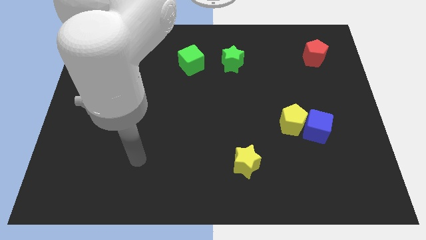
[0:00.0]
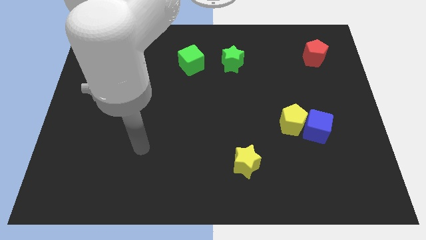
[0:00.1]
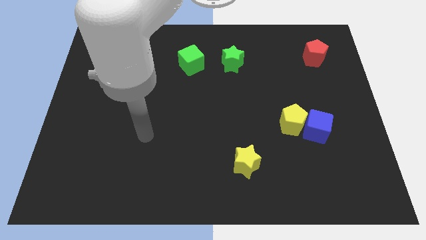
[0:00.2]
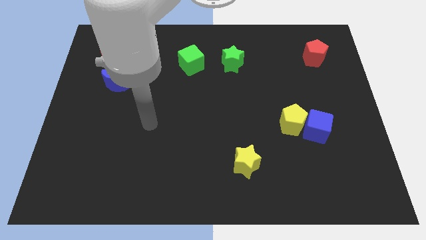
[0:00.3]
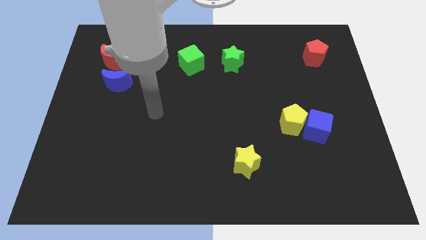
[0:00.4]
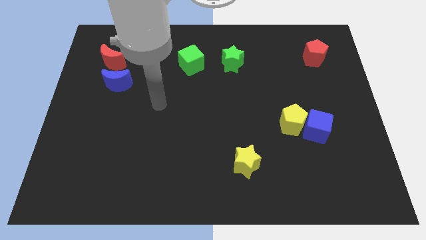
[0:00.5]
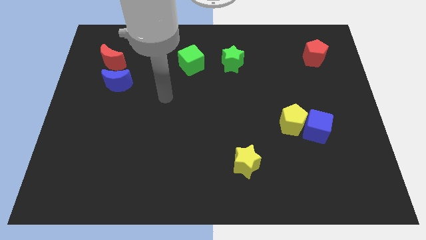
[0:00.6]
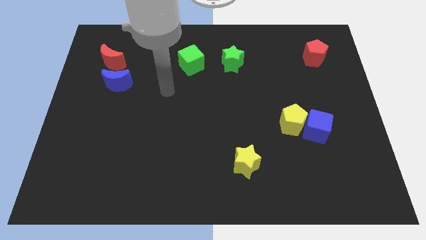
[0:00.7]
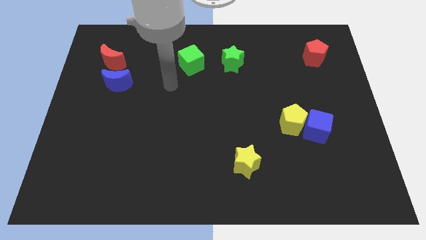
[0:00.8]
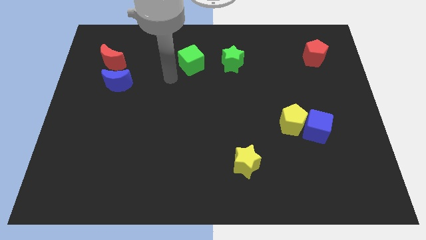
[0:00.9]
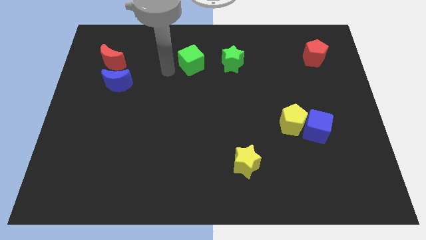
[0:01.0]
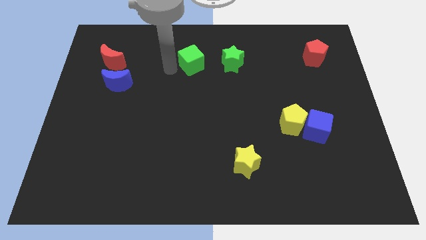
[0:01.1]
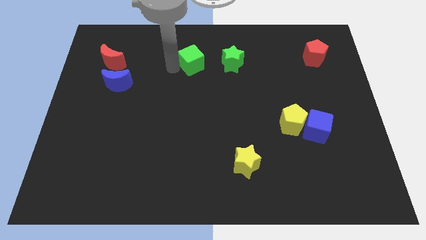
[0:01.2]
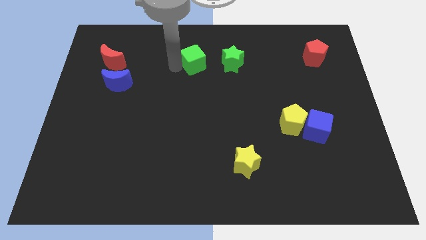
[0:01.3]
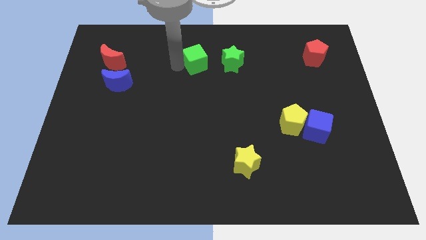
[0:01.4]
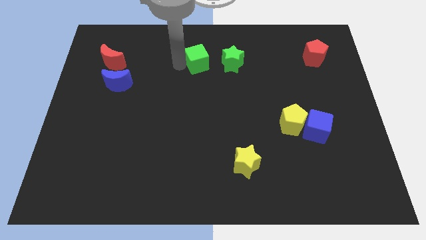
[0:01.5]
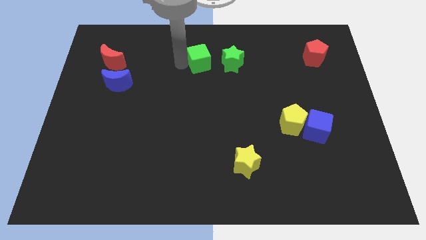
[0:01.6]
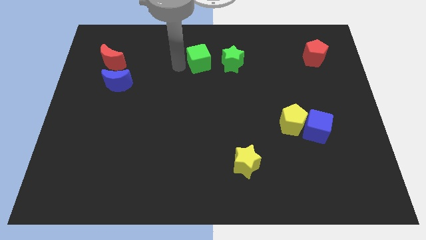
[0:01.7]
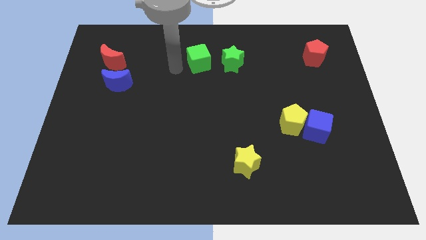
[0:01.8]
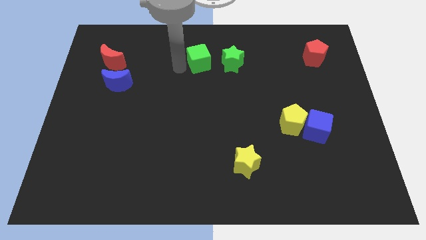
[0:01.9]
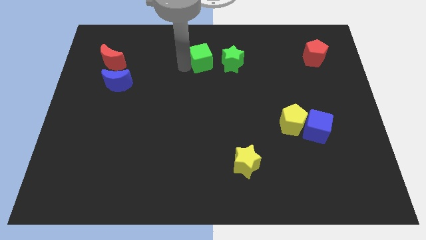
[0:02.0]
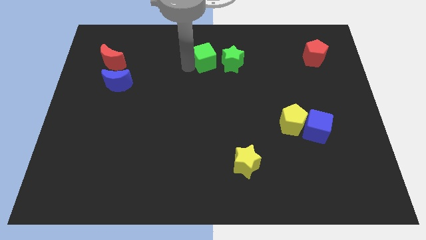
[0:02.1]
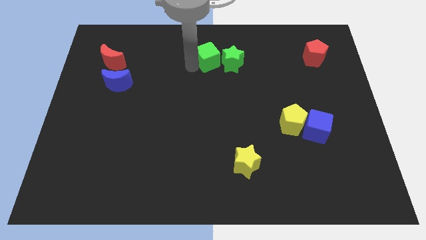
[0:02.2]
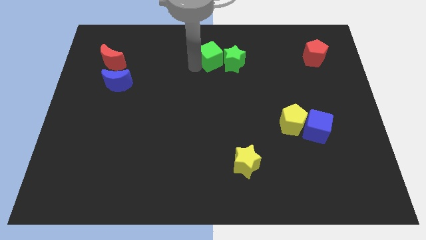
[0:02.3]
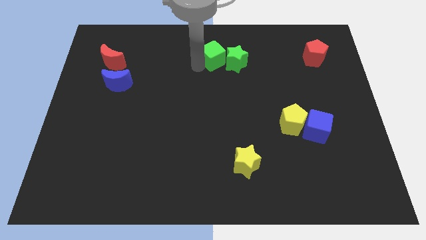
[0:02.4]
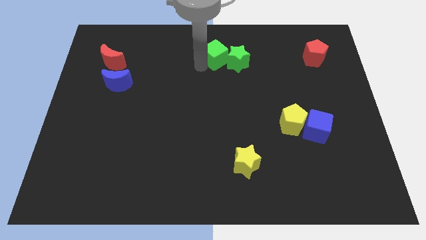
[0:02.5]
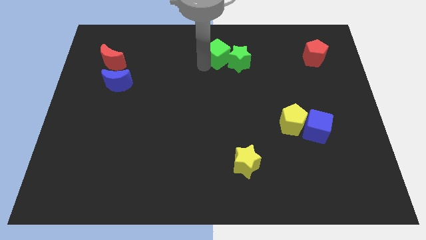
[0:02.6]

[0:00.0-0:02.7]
push the green cube right somewhat

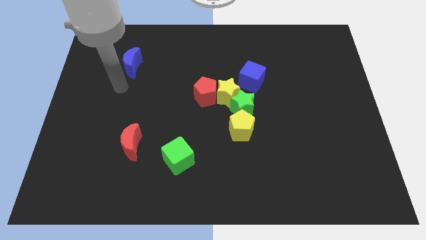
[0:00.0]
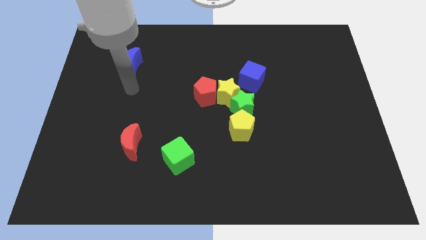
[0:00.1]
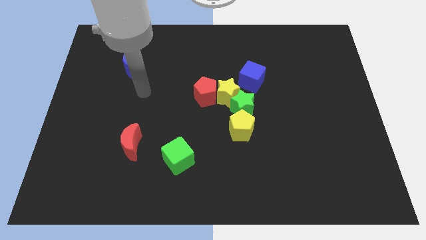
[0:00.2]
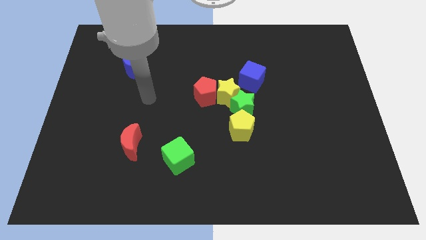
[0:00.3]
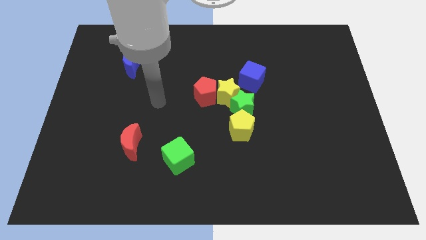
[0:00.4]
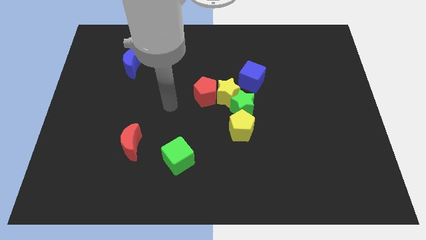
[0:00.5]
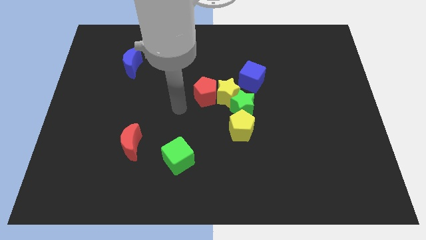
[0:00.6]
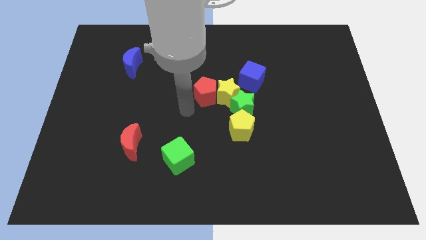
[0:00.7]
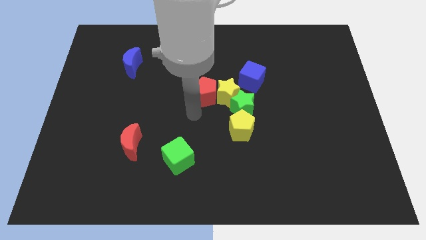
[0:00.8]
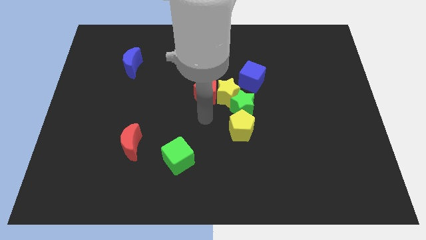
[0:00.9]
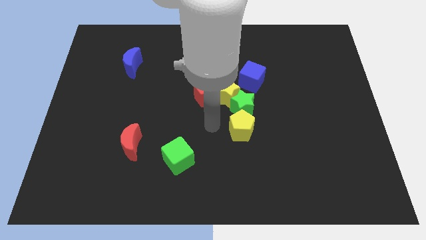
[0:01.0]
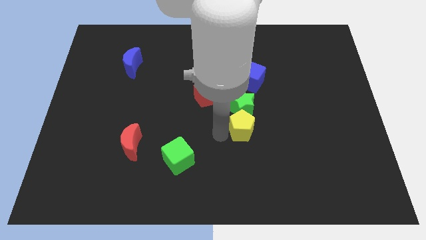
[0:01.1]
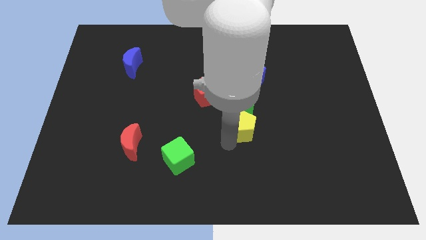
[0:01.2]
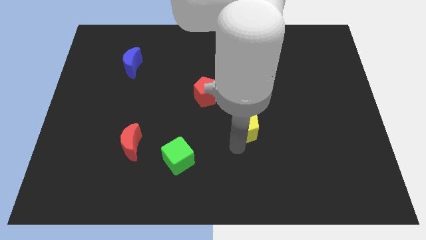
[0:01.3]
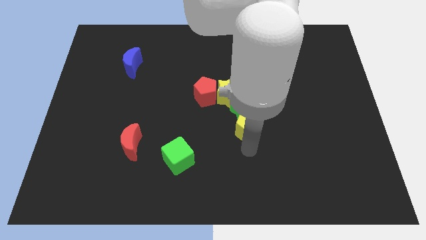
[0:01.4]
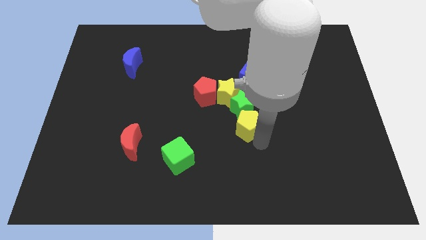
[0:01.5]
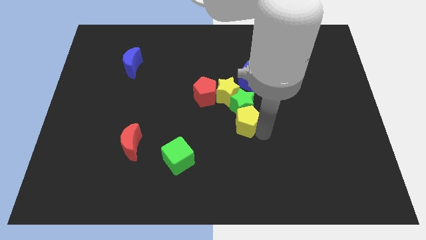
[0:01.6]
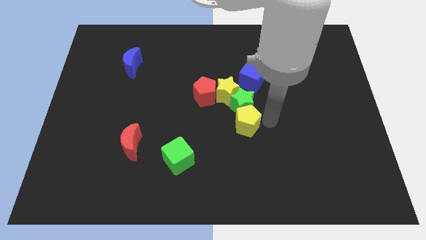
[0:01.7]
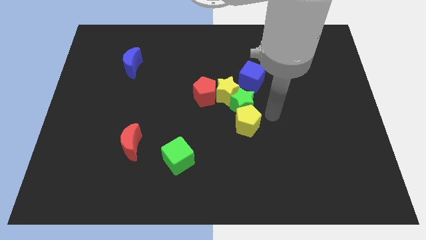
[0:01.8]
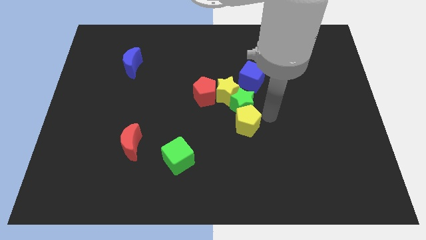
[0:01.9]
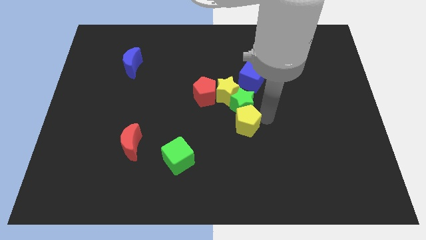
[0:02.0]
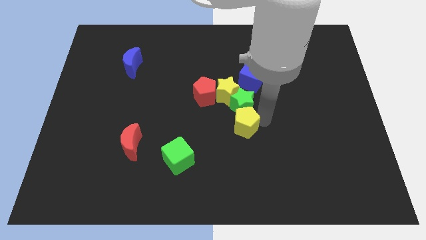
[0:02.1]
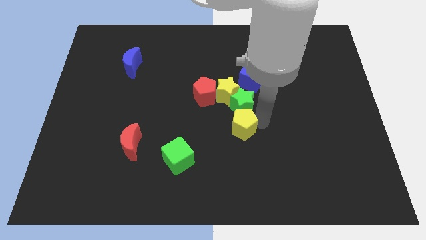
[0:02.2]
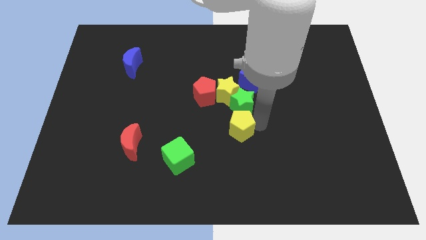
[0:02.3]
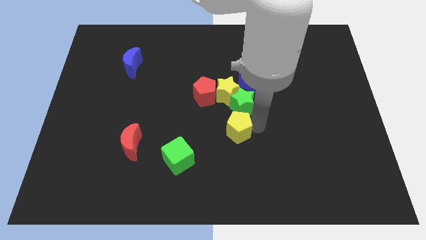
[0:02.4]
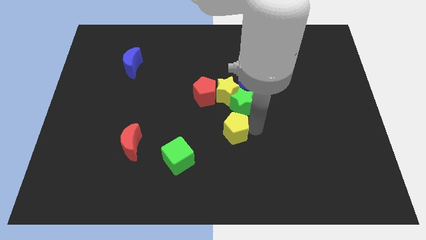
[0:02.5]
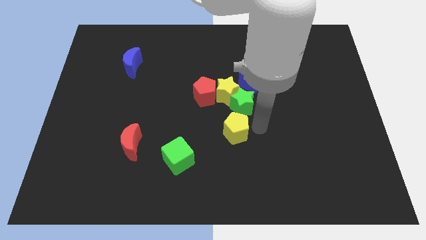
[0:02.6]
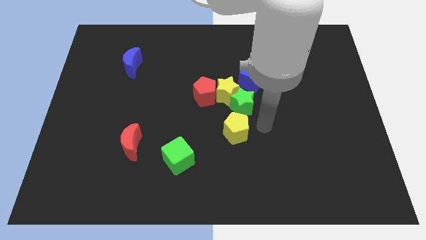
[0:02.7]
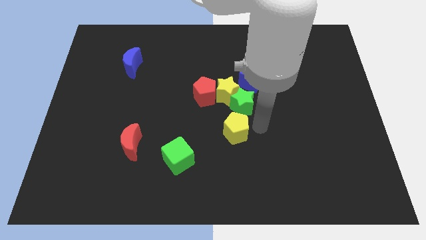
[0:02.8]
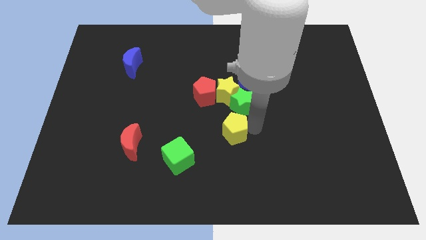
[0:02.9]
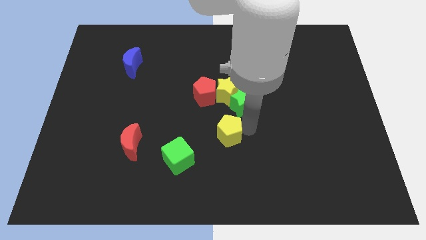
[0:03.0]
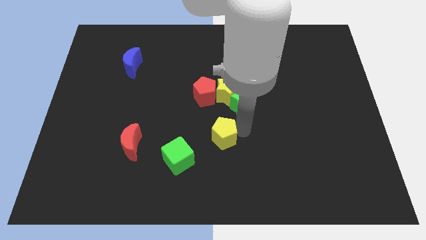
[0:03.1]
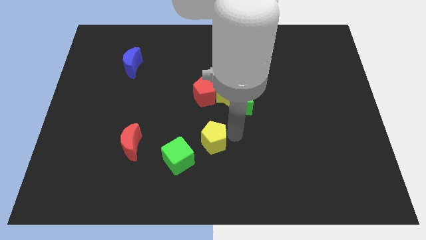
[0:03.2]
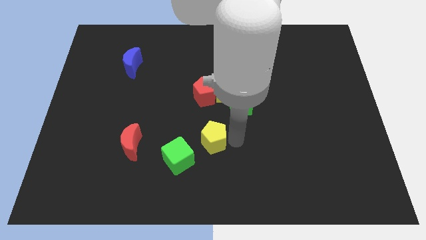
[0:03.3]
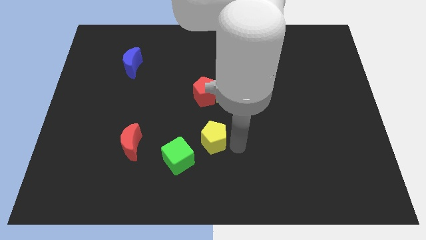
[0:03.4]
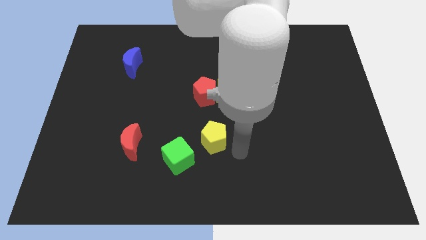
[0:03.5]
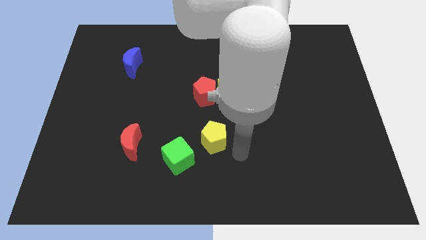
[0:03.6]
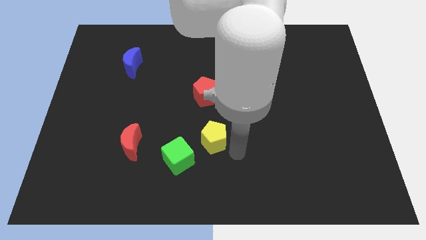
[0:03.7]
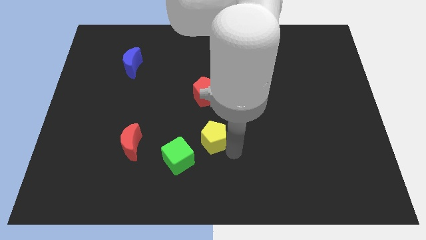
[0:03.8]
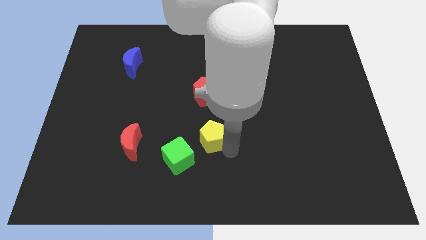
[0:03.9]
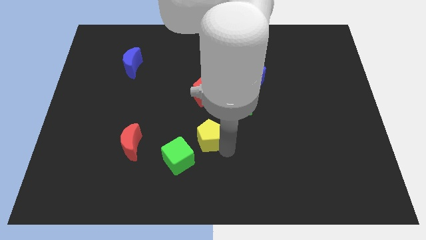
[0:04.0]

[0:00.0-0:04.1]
slide the yellow pentagon to the left somewhat

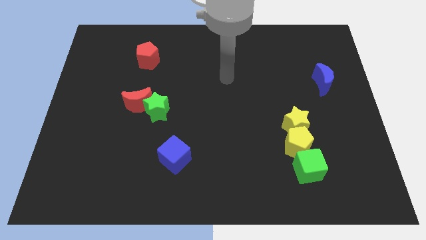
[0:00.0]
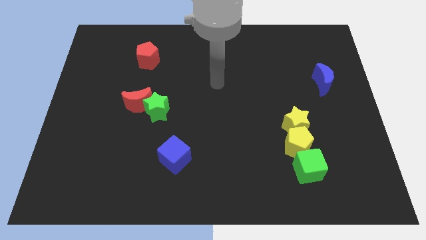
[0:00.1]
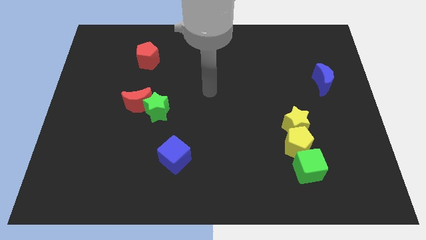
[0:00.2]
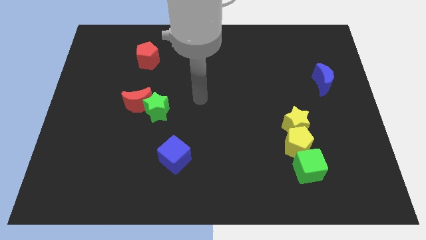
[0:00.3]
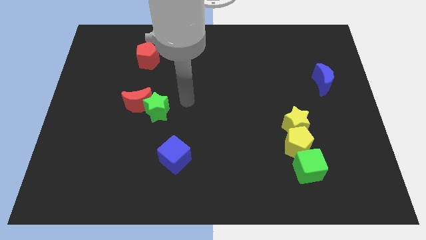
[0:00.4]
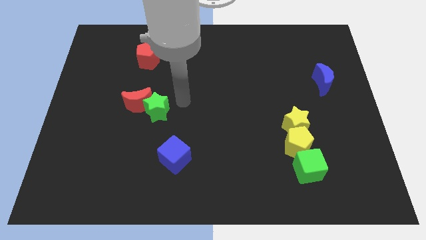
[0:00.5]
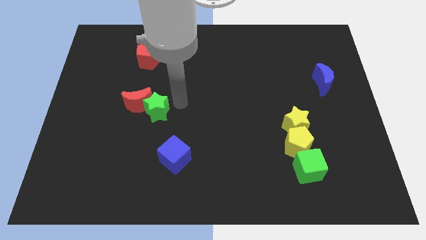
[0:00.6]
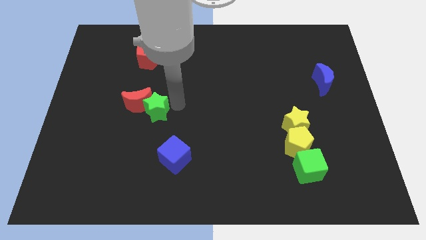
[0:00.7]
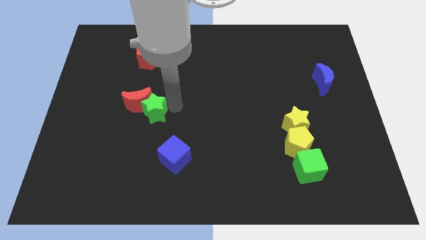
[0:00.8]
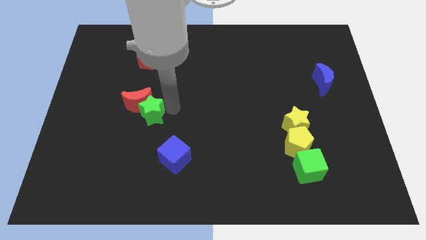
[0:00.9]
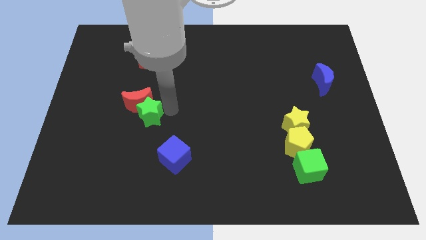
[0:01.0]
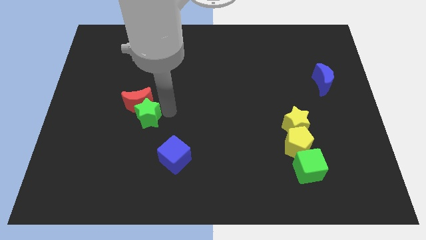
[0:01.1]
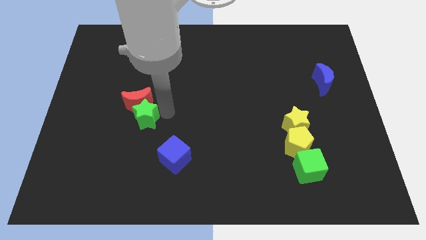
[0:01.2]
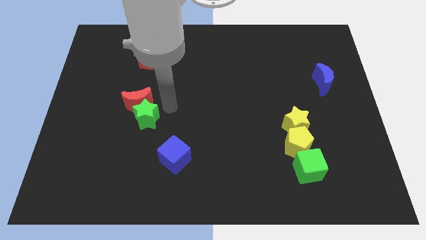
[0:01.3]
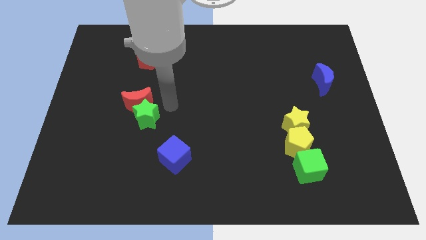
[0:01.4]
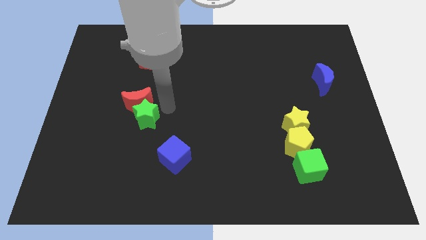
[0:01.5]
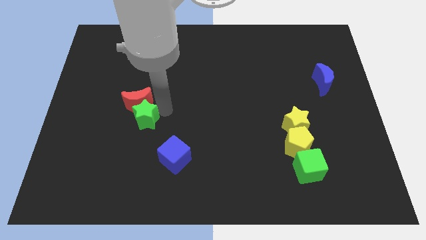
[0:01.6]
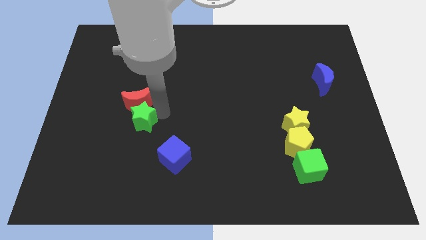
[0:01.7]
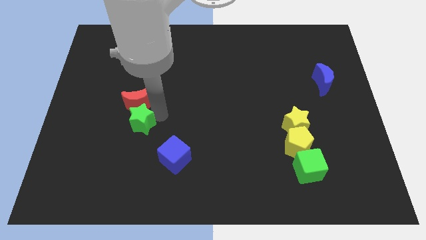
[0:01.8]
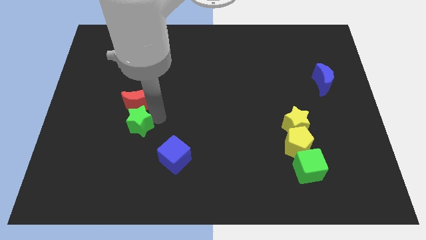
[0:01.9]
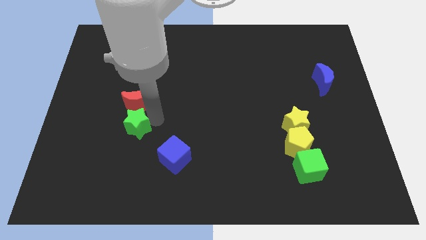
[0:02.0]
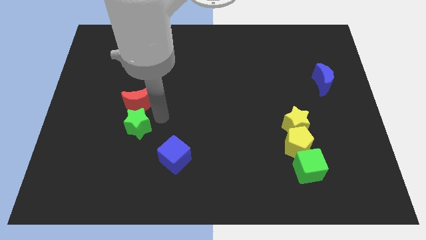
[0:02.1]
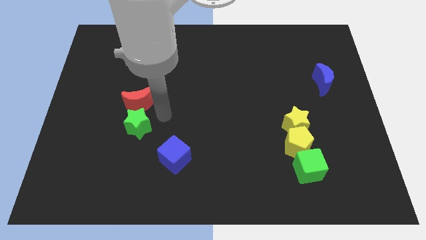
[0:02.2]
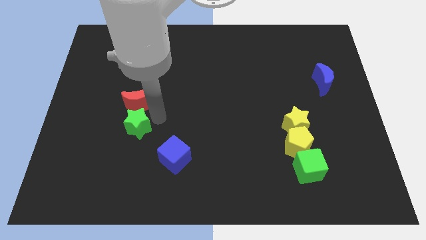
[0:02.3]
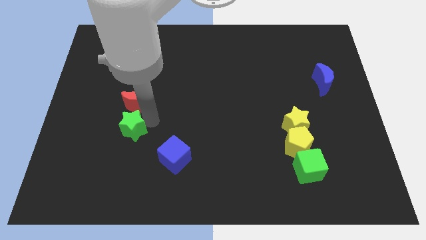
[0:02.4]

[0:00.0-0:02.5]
slide the green star a bit downwards and then left
